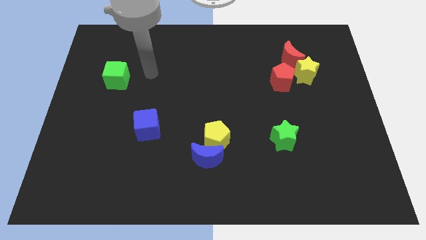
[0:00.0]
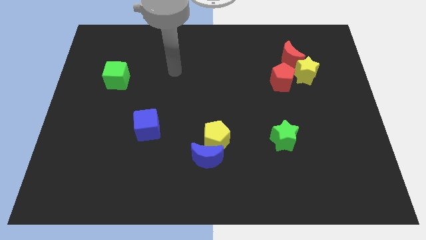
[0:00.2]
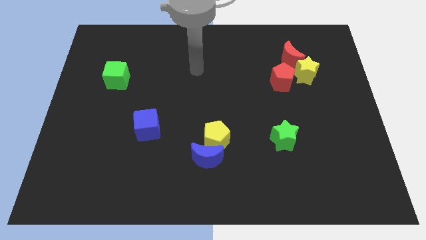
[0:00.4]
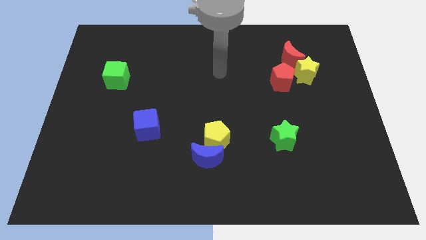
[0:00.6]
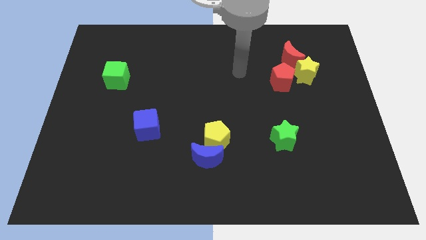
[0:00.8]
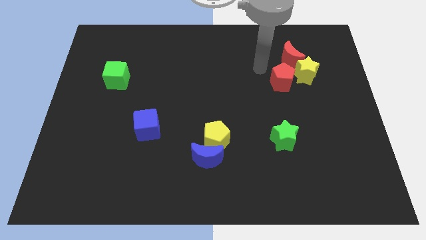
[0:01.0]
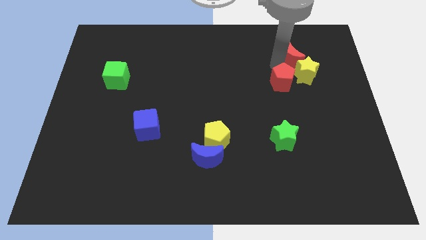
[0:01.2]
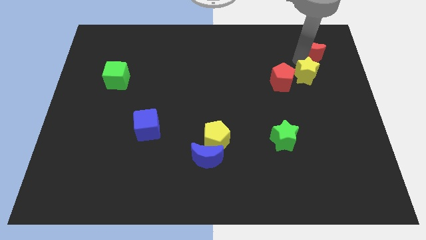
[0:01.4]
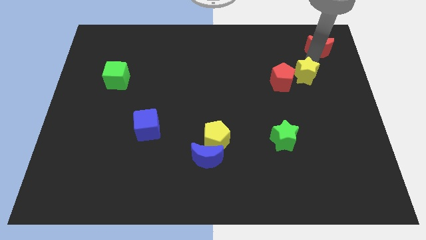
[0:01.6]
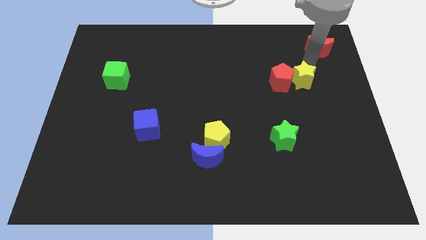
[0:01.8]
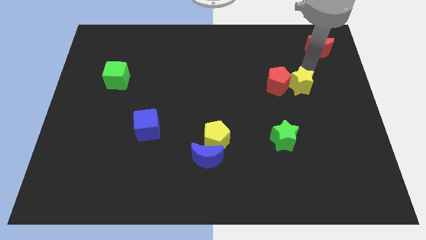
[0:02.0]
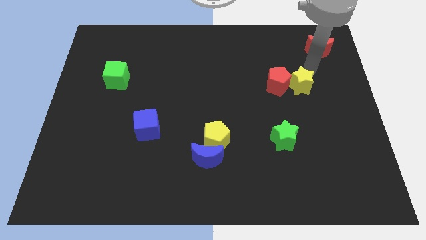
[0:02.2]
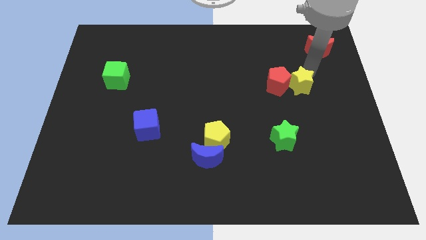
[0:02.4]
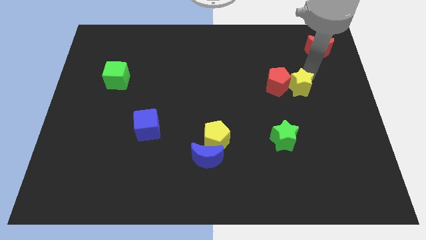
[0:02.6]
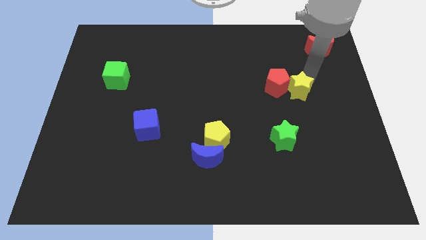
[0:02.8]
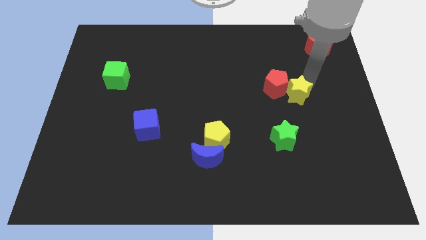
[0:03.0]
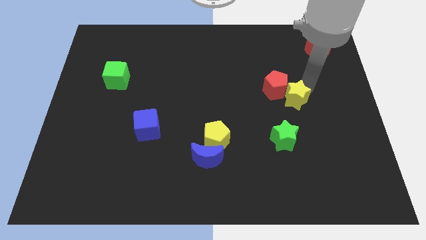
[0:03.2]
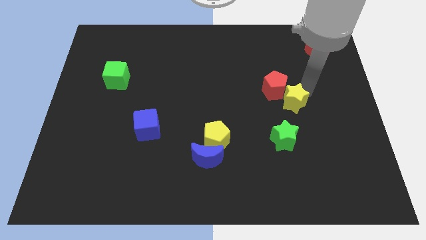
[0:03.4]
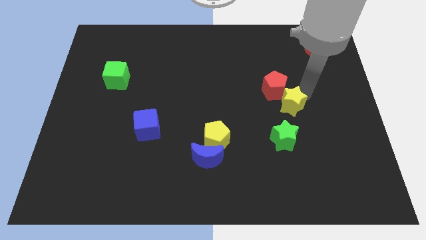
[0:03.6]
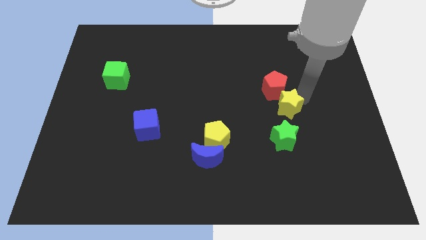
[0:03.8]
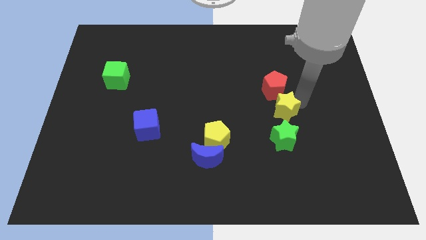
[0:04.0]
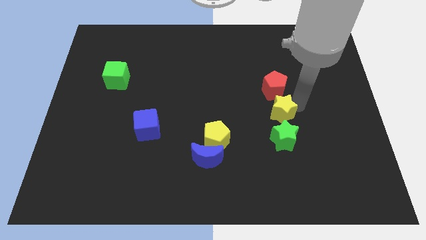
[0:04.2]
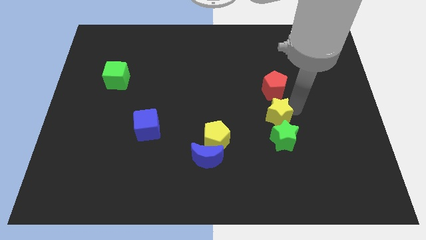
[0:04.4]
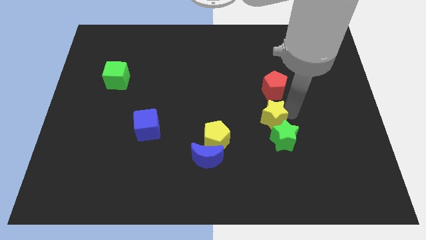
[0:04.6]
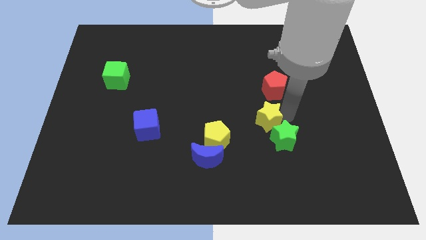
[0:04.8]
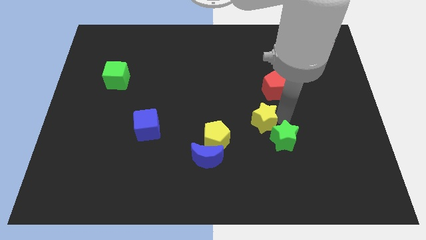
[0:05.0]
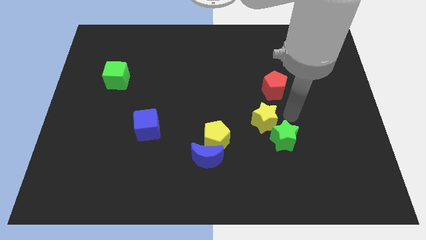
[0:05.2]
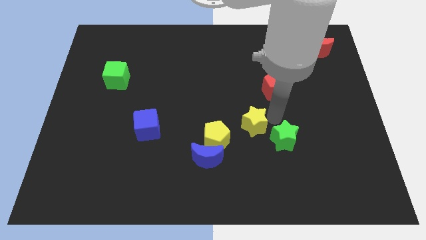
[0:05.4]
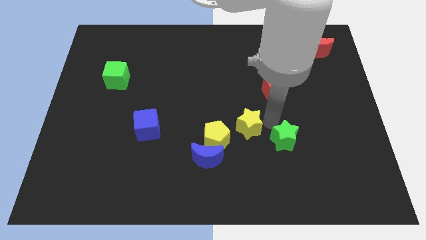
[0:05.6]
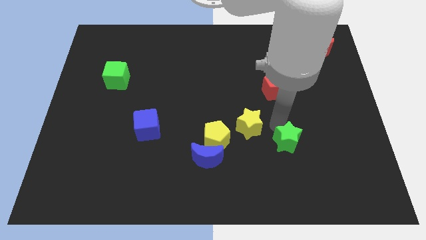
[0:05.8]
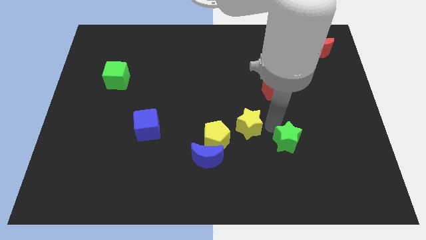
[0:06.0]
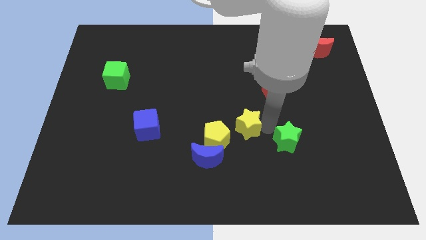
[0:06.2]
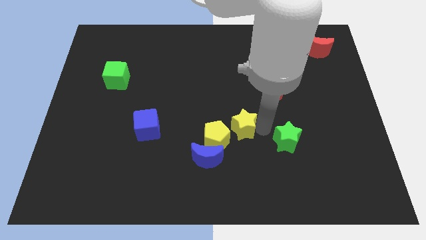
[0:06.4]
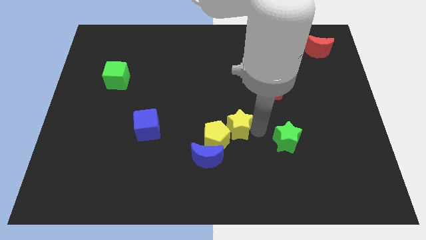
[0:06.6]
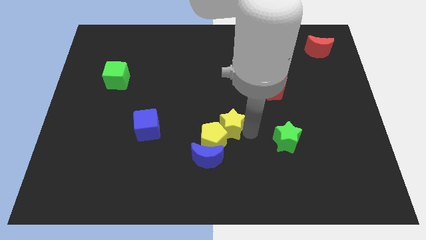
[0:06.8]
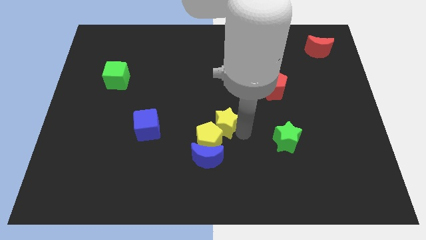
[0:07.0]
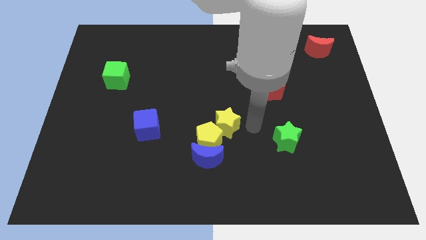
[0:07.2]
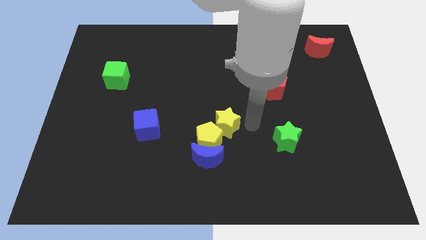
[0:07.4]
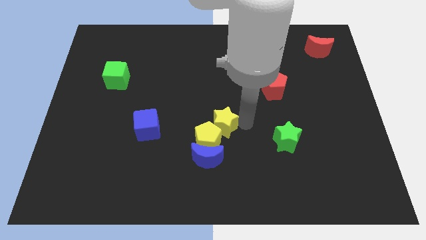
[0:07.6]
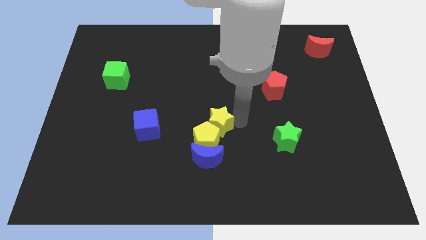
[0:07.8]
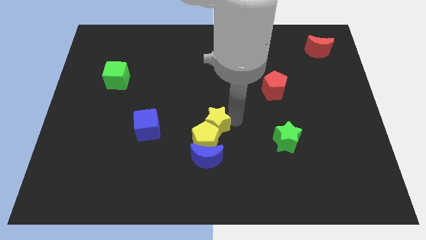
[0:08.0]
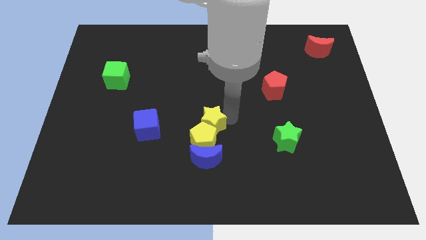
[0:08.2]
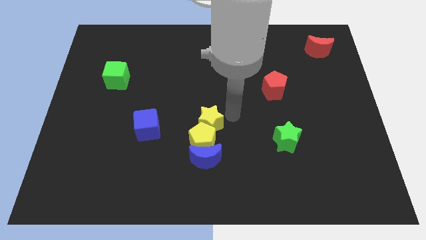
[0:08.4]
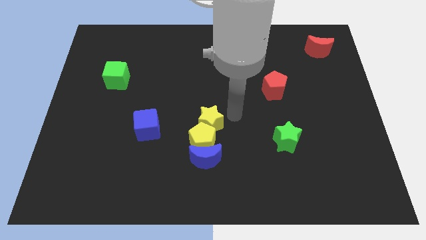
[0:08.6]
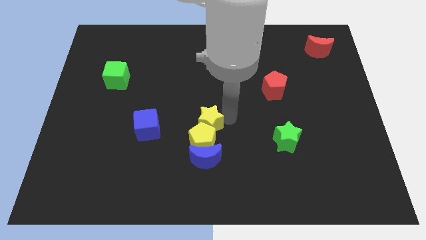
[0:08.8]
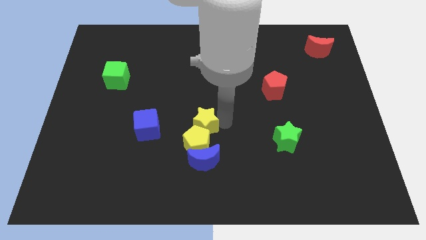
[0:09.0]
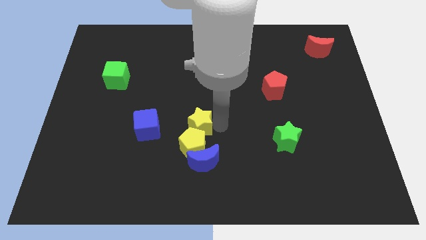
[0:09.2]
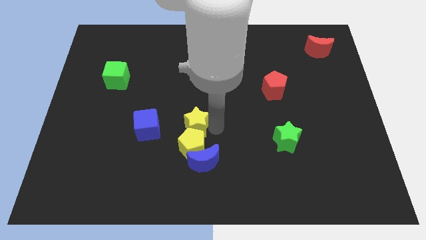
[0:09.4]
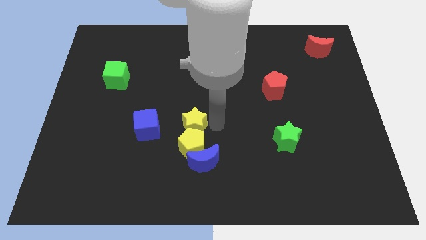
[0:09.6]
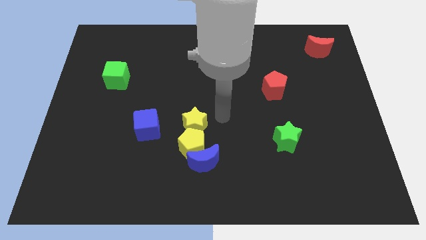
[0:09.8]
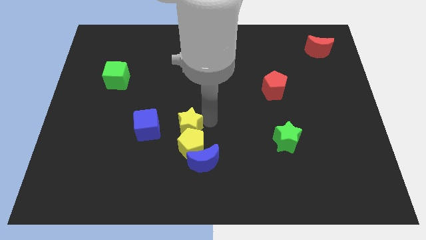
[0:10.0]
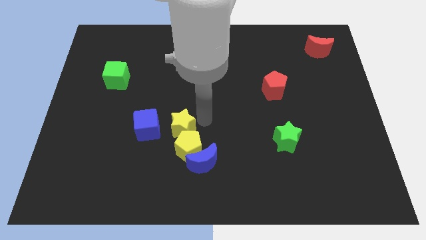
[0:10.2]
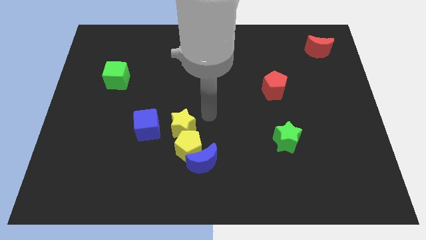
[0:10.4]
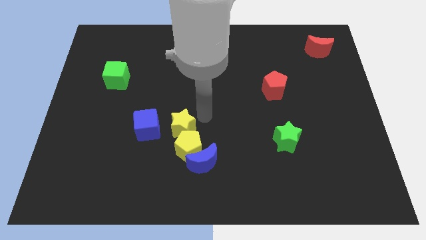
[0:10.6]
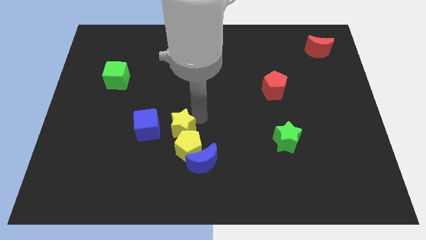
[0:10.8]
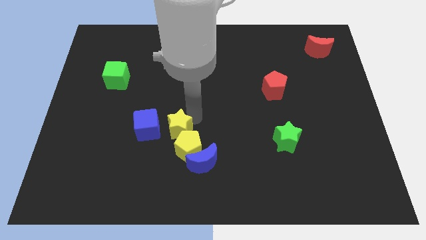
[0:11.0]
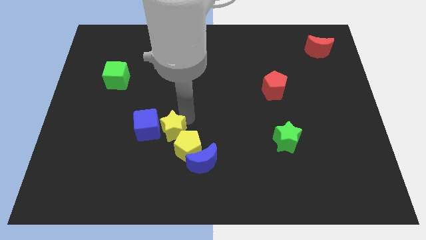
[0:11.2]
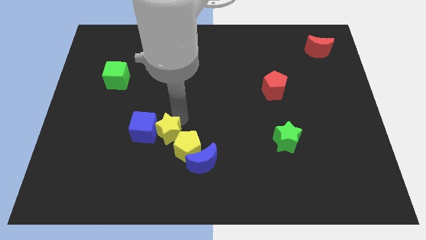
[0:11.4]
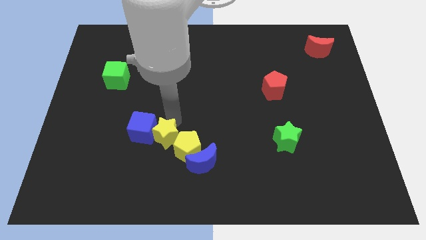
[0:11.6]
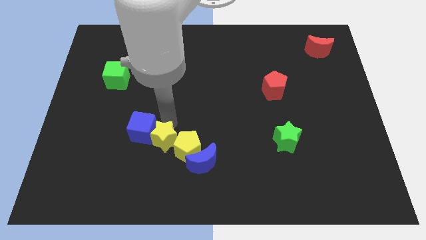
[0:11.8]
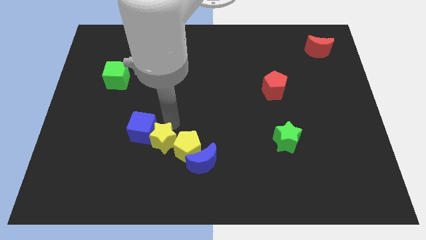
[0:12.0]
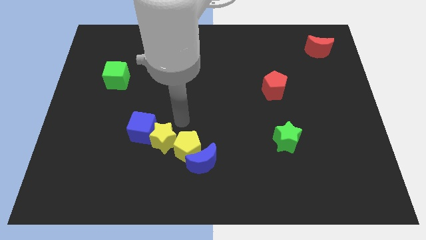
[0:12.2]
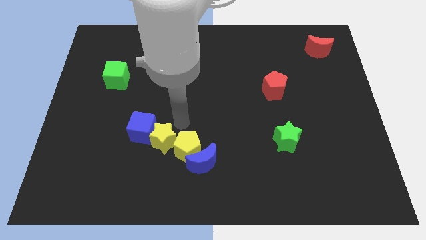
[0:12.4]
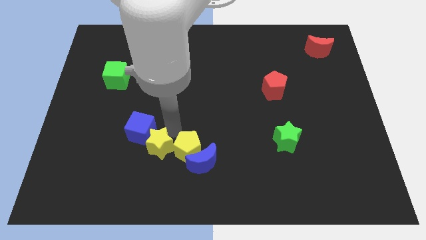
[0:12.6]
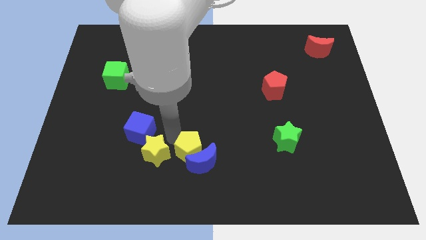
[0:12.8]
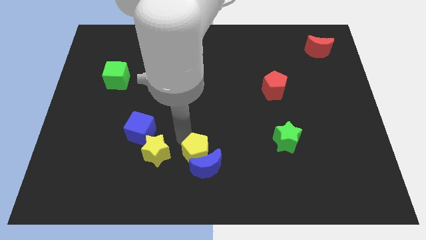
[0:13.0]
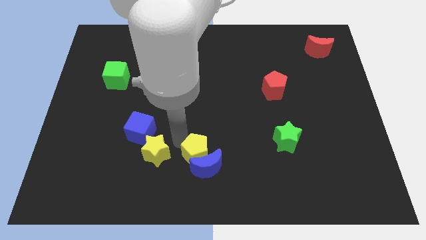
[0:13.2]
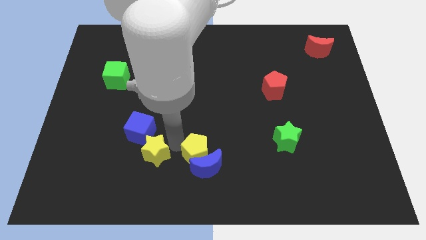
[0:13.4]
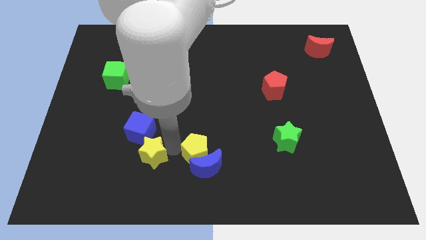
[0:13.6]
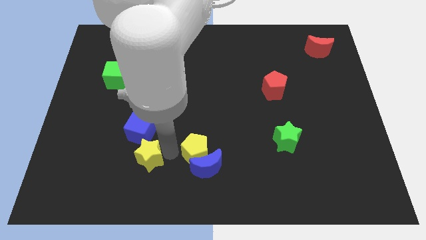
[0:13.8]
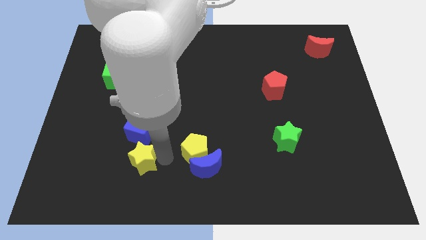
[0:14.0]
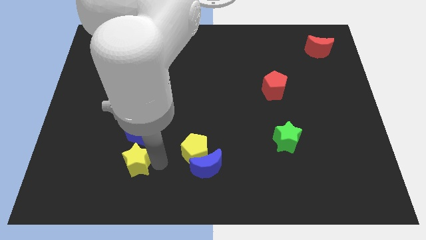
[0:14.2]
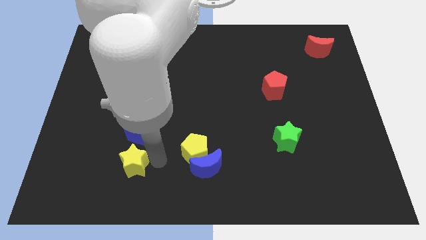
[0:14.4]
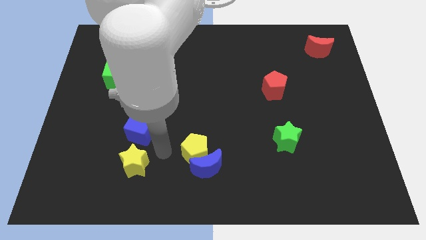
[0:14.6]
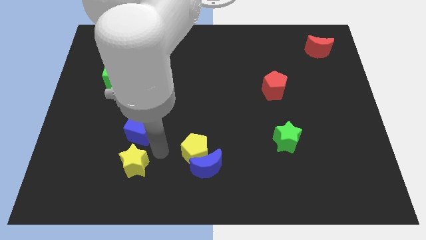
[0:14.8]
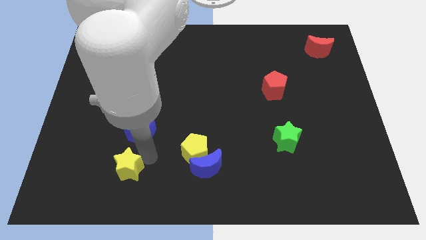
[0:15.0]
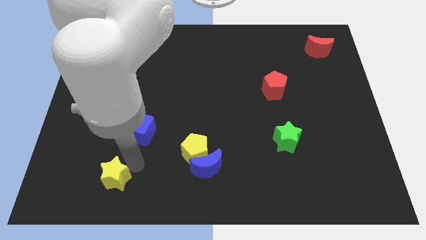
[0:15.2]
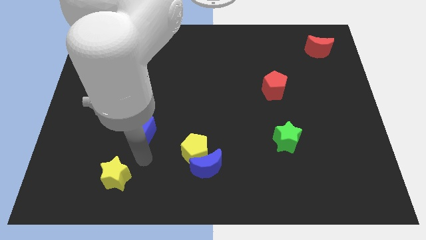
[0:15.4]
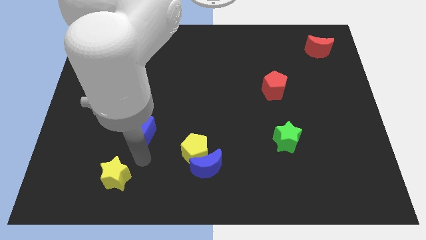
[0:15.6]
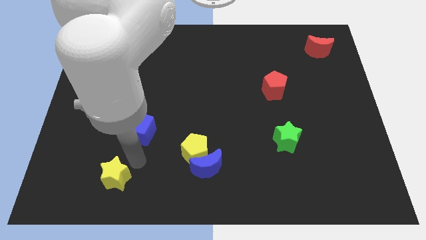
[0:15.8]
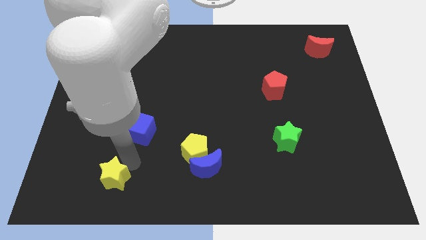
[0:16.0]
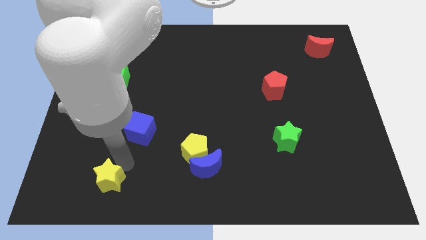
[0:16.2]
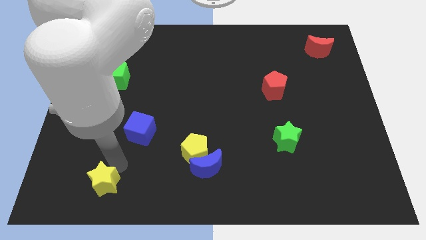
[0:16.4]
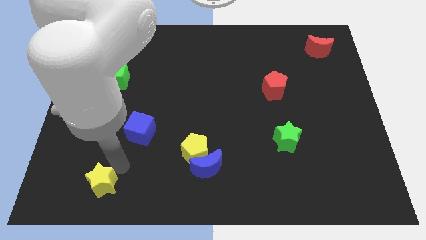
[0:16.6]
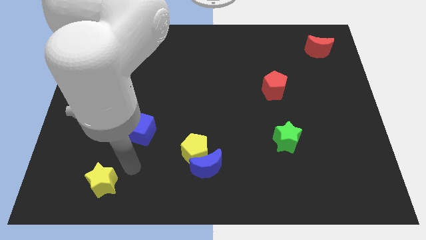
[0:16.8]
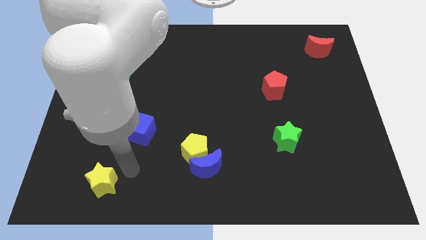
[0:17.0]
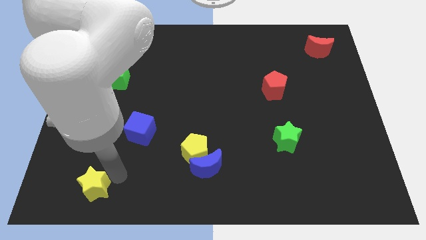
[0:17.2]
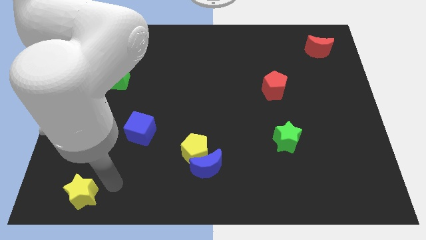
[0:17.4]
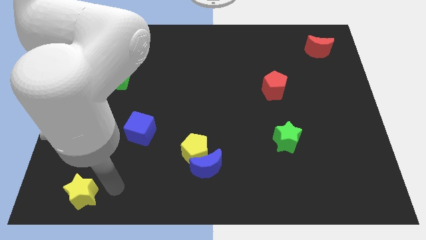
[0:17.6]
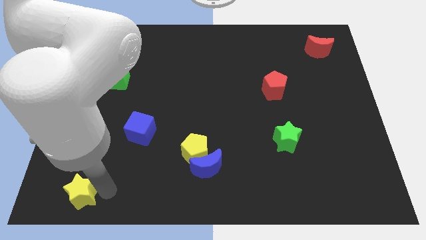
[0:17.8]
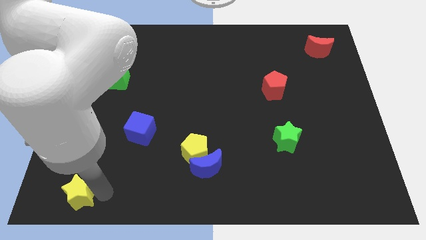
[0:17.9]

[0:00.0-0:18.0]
slide the yellow star to the bottom left corner
